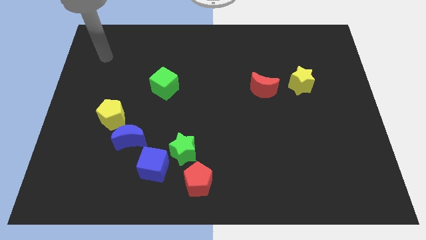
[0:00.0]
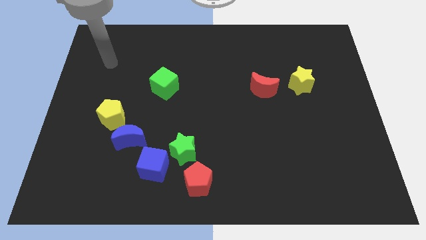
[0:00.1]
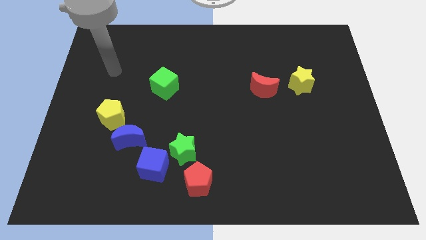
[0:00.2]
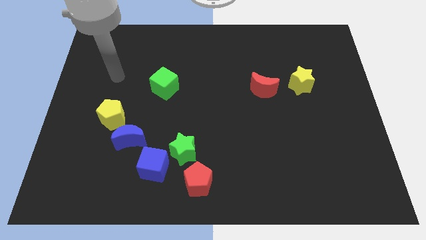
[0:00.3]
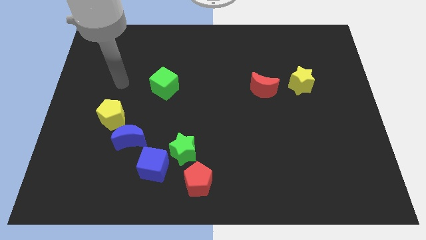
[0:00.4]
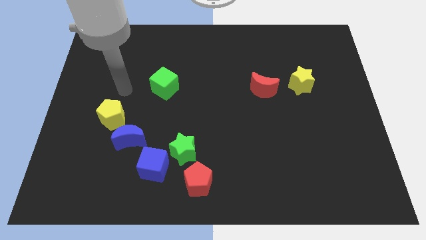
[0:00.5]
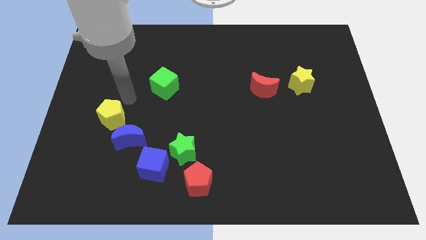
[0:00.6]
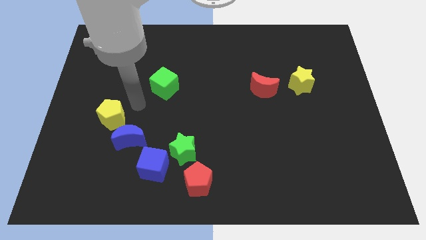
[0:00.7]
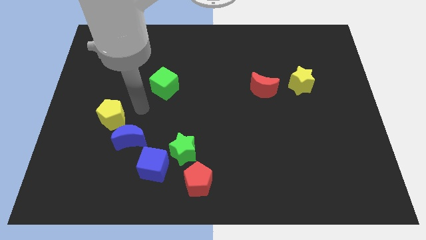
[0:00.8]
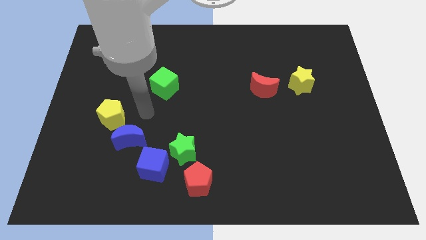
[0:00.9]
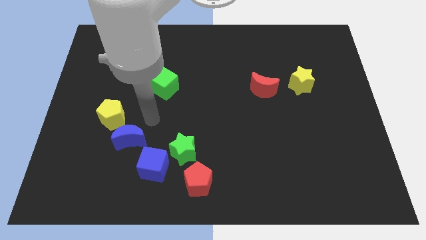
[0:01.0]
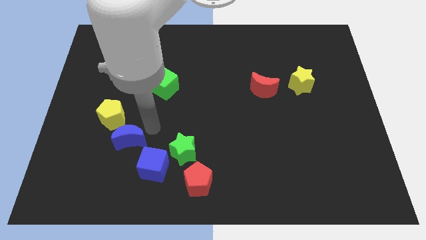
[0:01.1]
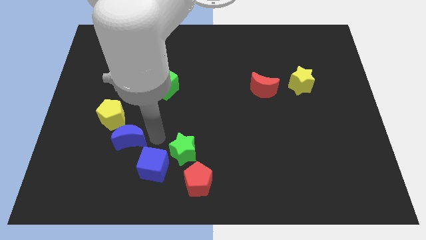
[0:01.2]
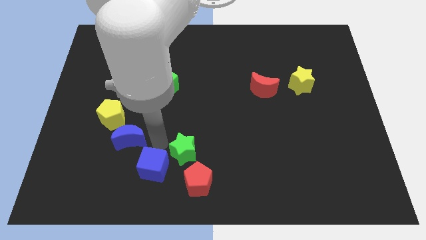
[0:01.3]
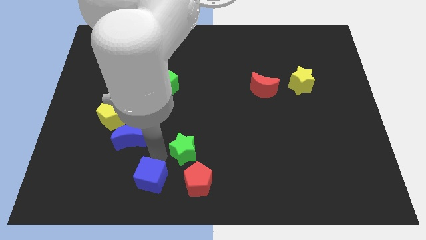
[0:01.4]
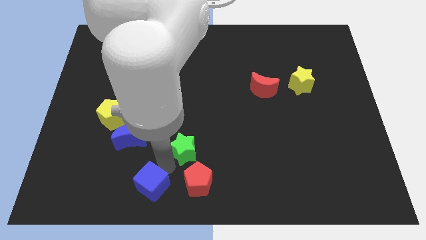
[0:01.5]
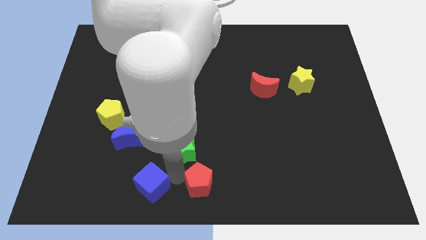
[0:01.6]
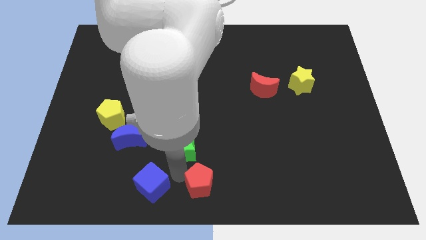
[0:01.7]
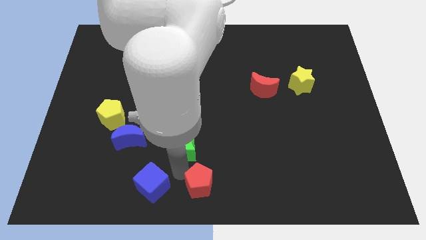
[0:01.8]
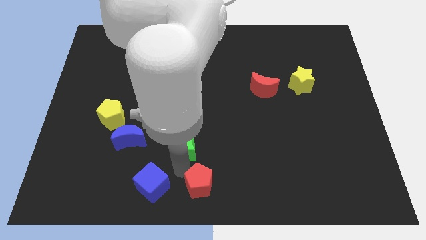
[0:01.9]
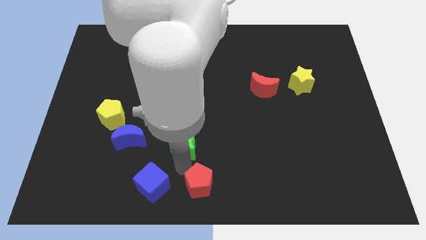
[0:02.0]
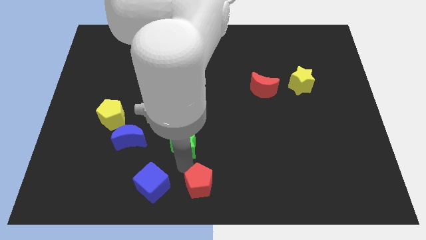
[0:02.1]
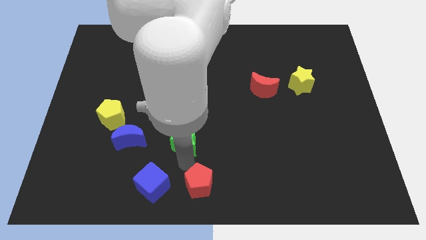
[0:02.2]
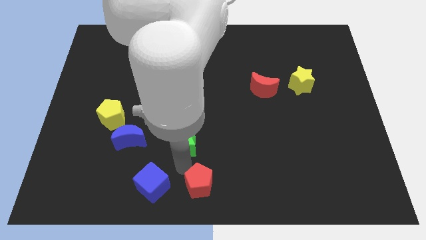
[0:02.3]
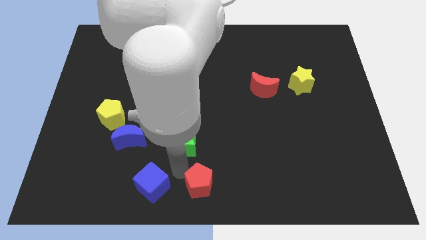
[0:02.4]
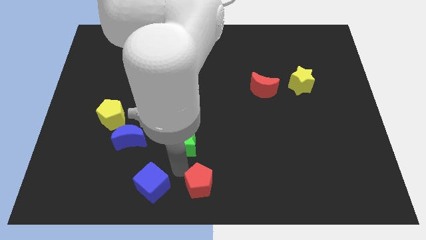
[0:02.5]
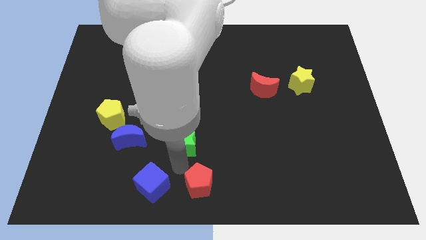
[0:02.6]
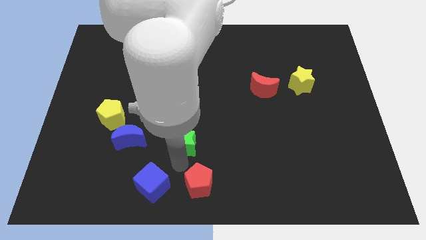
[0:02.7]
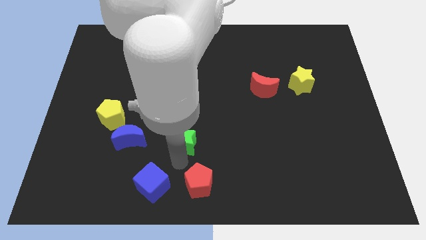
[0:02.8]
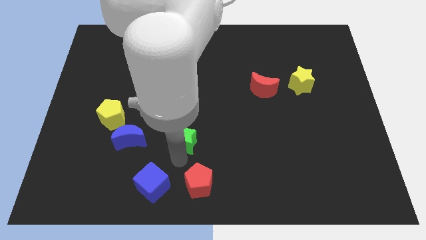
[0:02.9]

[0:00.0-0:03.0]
separate the green star from the blue cube and red pentagon

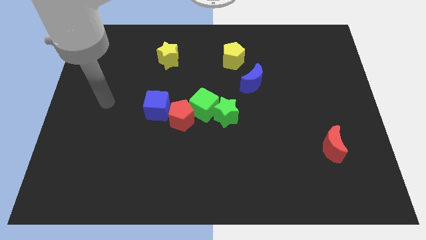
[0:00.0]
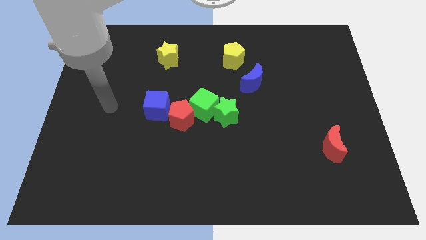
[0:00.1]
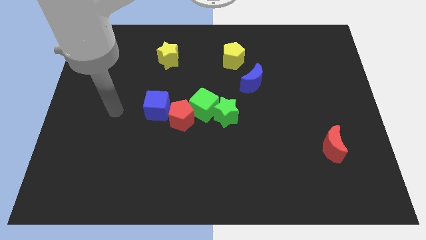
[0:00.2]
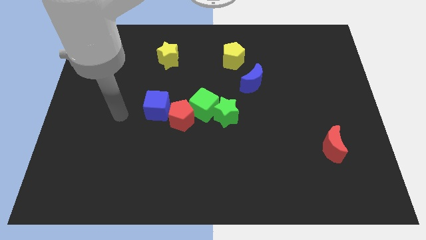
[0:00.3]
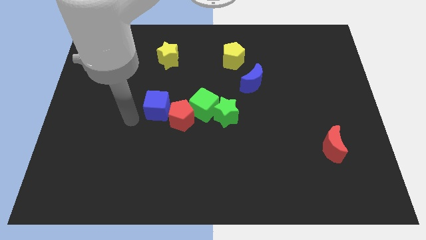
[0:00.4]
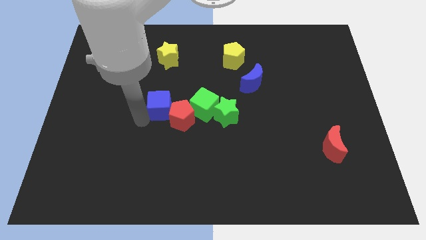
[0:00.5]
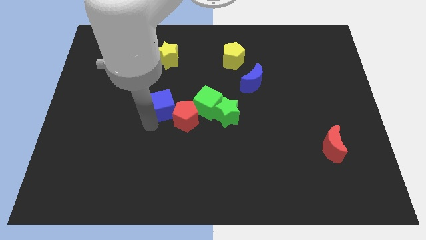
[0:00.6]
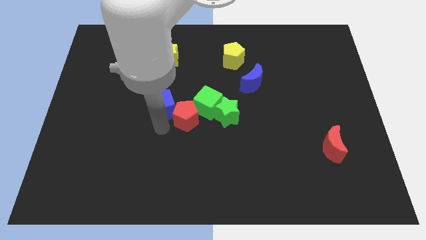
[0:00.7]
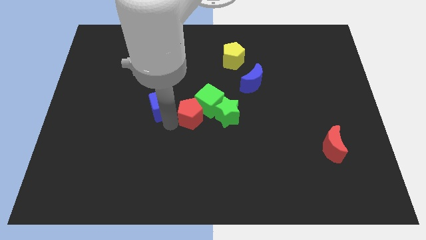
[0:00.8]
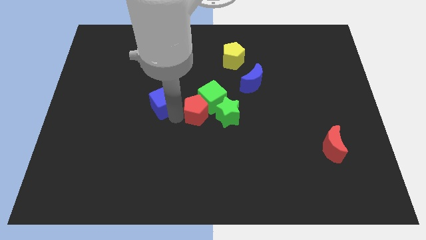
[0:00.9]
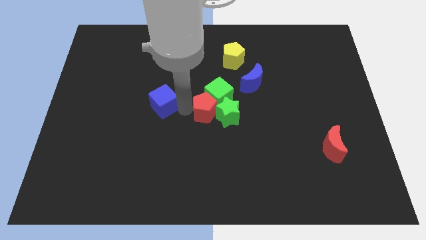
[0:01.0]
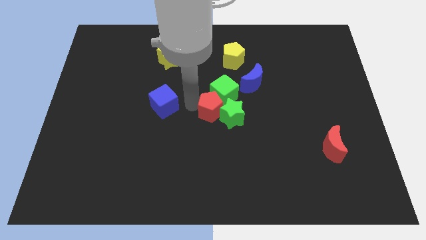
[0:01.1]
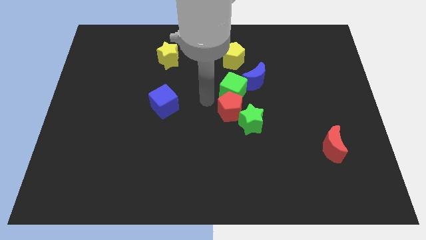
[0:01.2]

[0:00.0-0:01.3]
separate the green star from the green cube

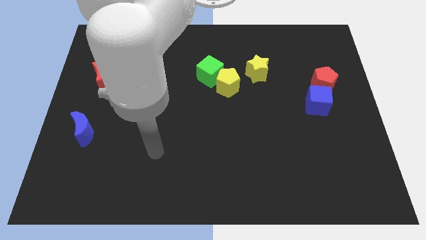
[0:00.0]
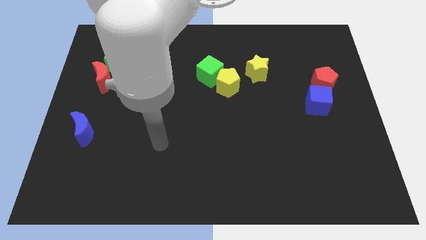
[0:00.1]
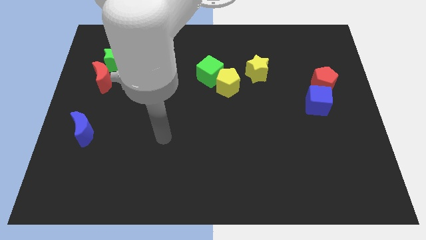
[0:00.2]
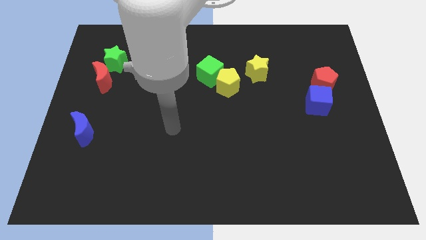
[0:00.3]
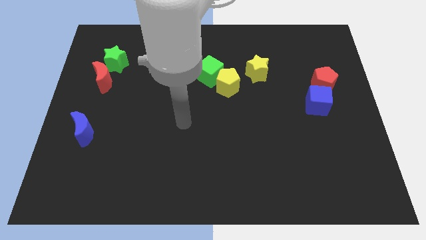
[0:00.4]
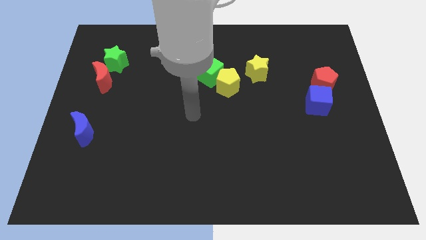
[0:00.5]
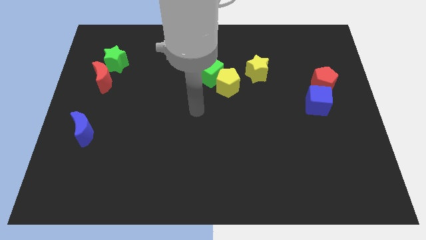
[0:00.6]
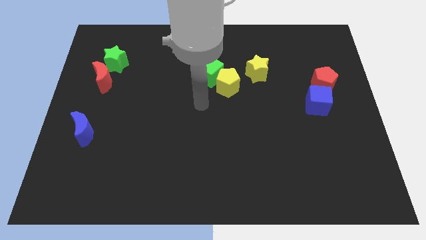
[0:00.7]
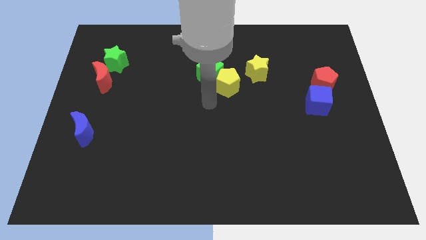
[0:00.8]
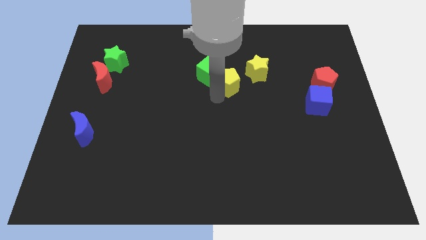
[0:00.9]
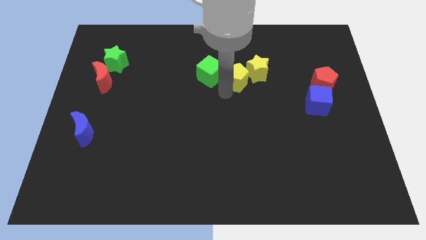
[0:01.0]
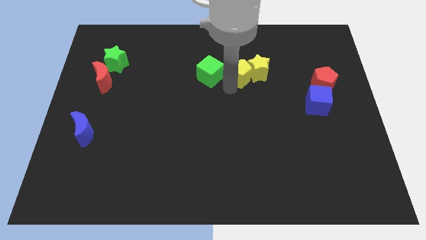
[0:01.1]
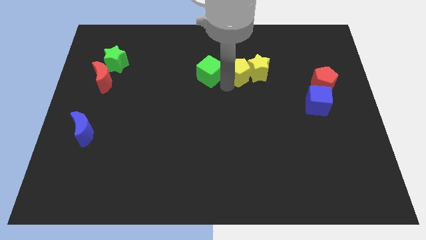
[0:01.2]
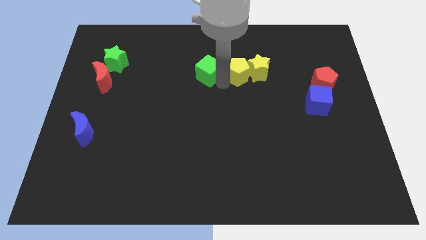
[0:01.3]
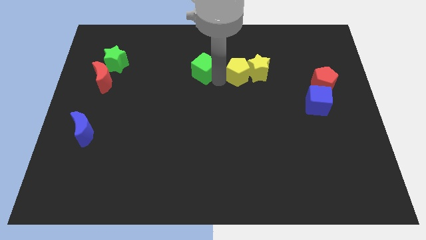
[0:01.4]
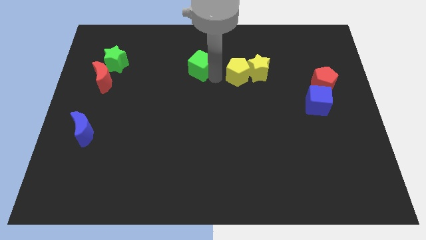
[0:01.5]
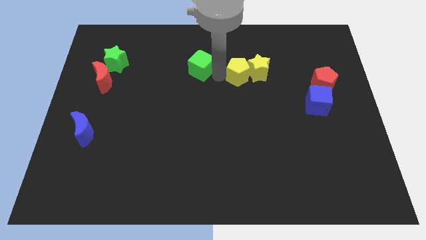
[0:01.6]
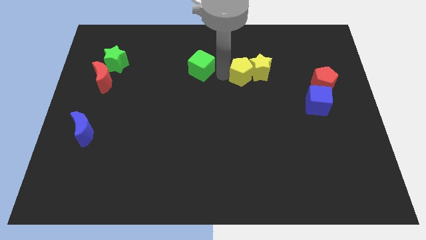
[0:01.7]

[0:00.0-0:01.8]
pull the green cube apart from the yellow pentagon

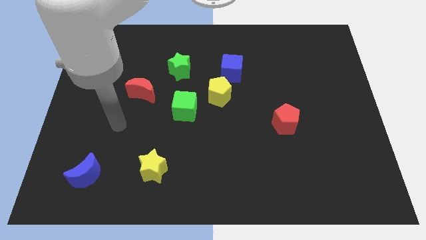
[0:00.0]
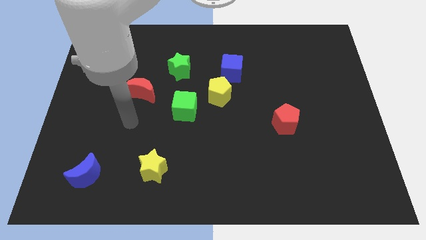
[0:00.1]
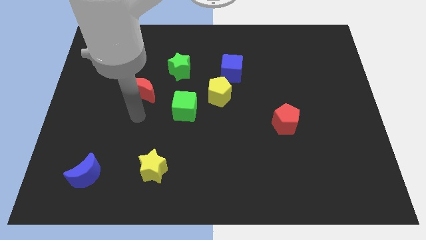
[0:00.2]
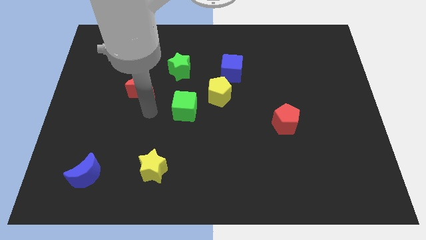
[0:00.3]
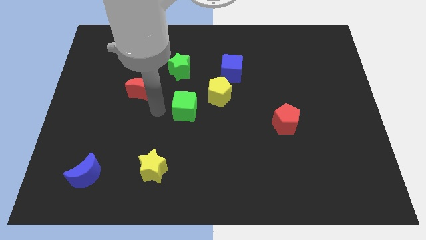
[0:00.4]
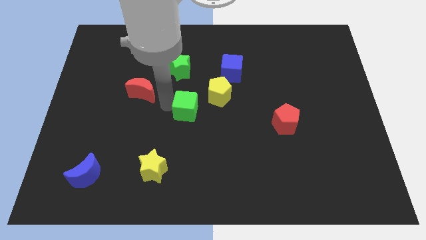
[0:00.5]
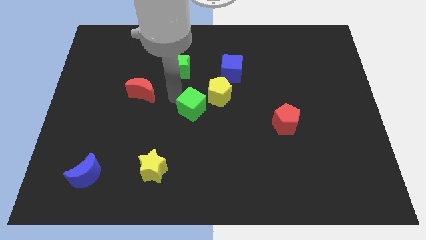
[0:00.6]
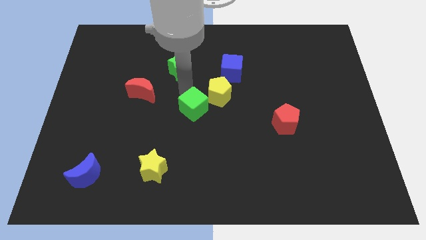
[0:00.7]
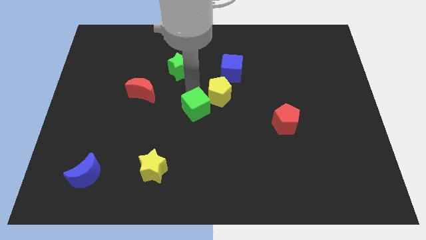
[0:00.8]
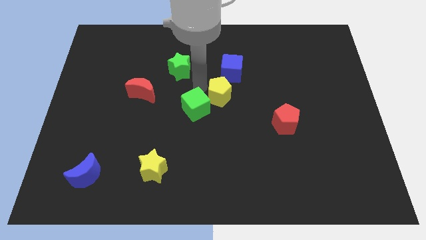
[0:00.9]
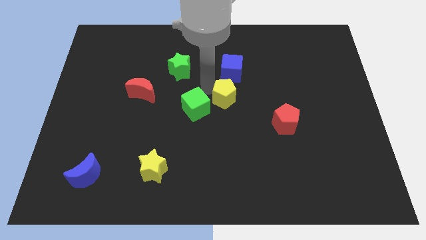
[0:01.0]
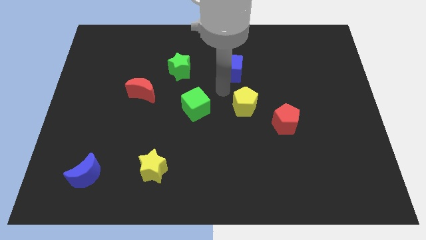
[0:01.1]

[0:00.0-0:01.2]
separate the blue cube from the yellow pentagon

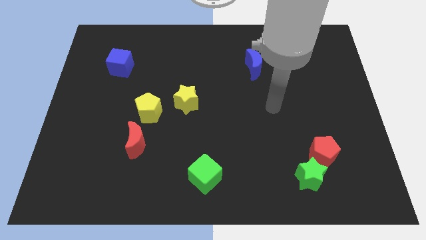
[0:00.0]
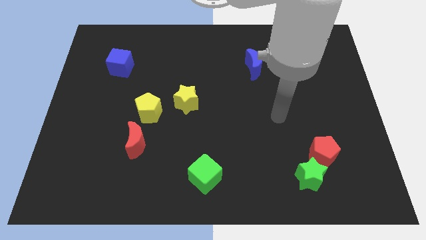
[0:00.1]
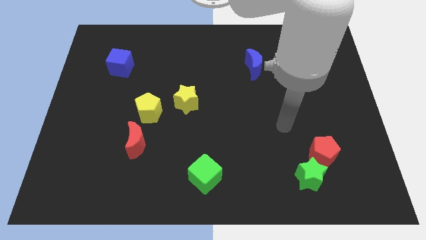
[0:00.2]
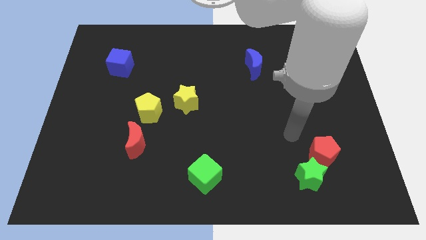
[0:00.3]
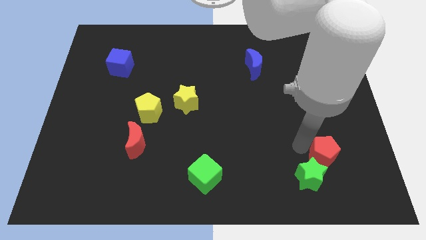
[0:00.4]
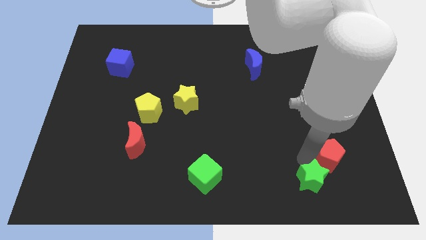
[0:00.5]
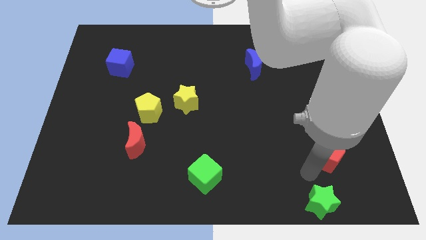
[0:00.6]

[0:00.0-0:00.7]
pull the red pentagon apart from the green star

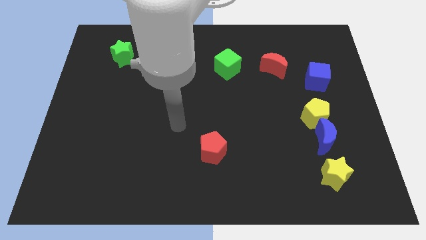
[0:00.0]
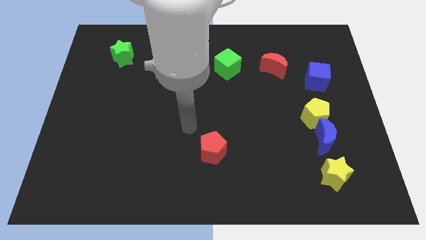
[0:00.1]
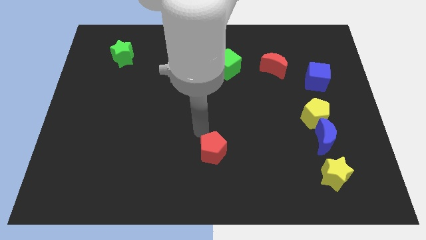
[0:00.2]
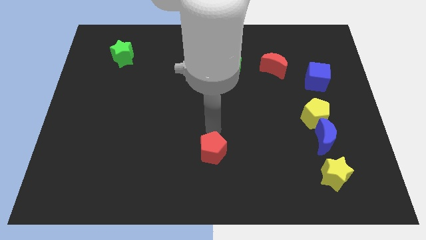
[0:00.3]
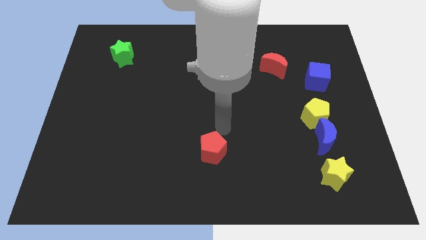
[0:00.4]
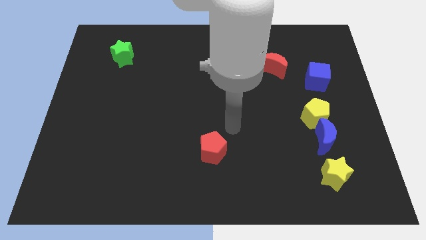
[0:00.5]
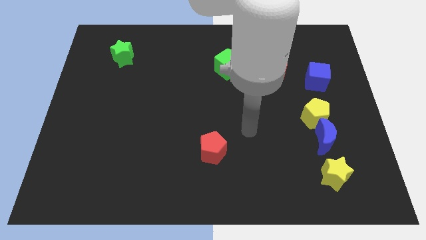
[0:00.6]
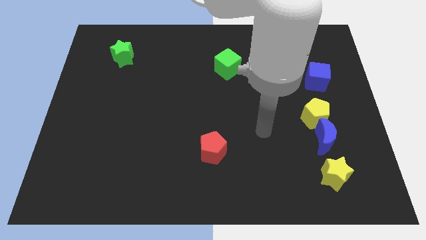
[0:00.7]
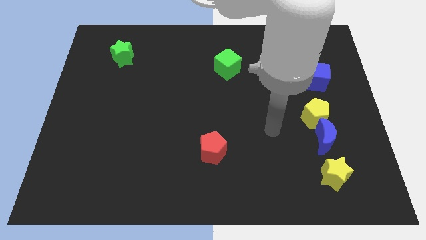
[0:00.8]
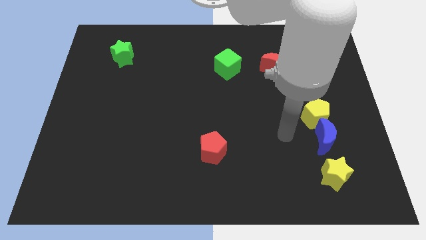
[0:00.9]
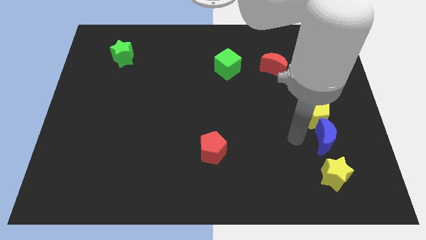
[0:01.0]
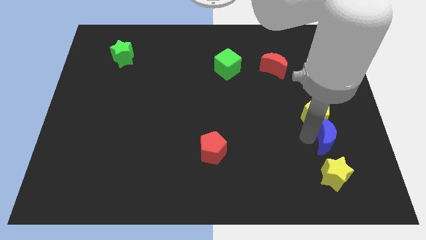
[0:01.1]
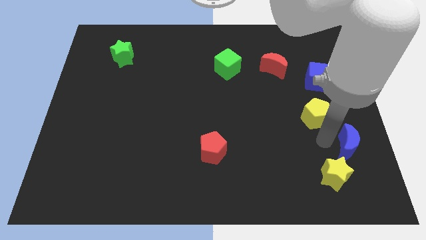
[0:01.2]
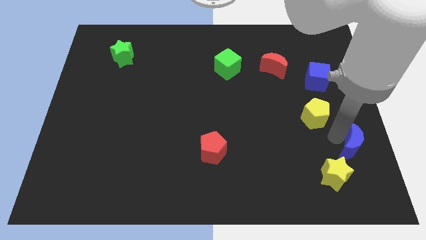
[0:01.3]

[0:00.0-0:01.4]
separate the yellow pentagon from the blue moon
